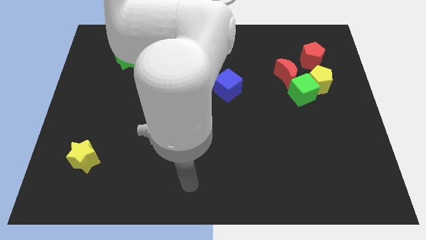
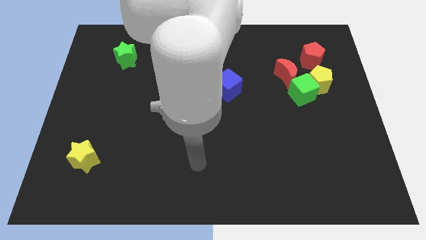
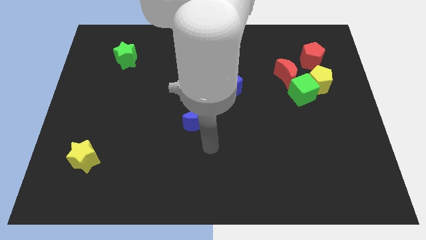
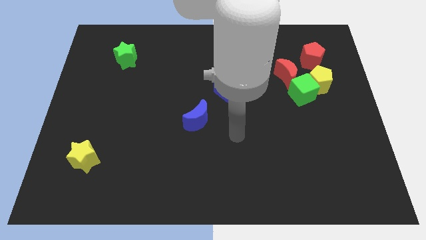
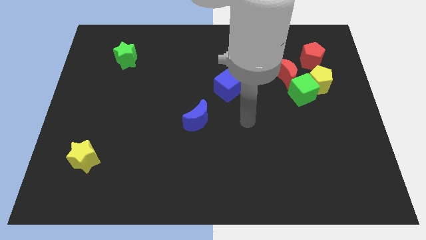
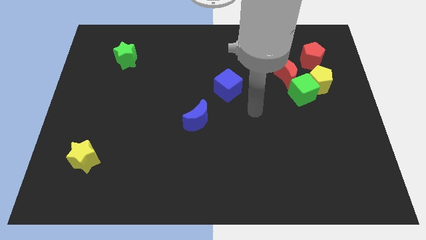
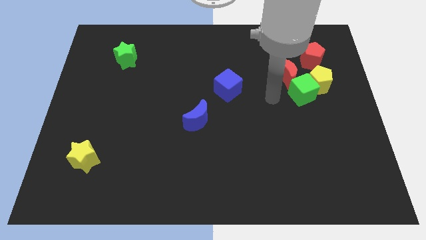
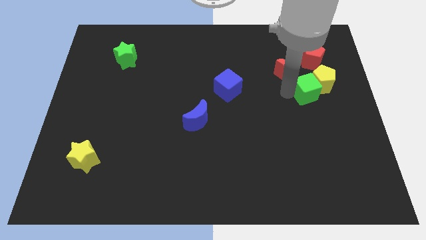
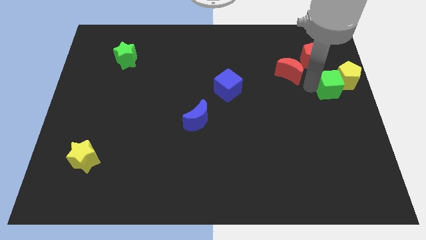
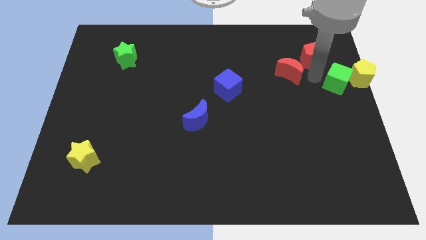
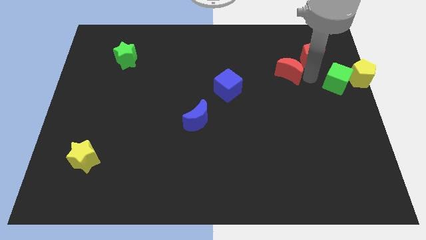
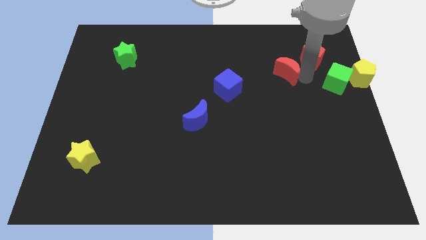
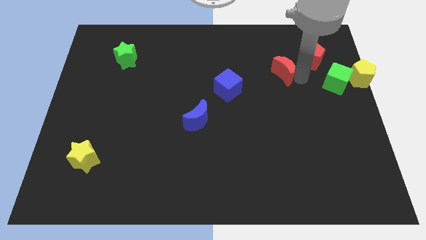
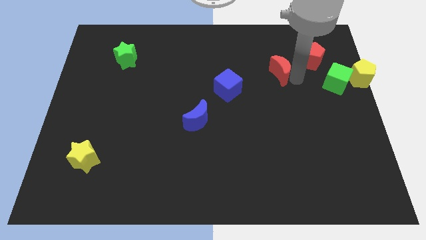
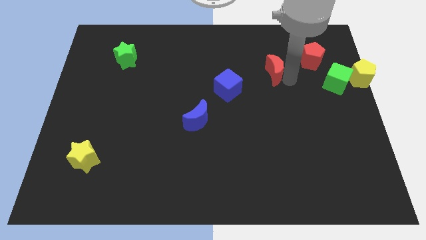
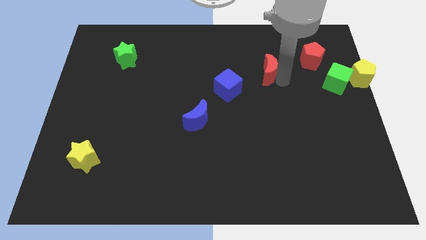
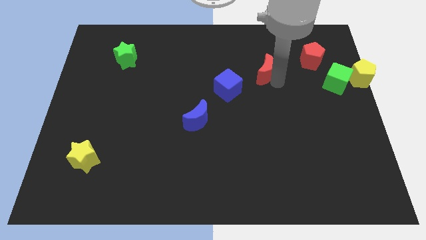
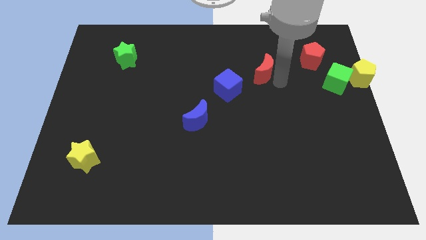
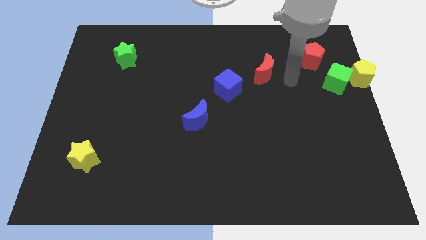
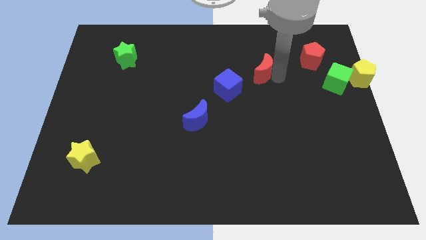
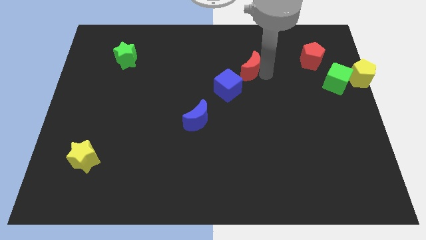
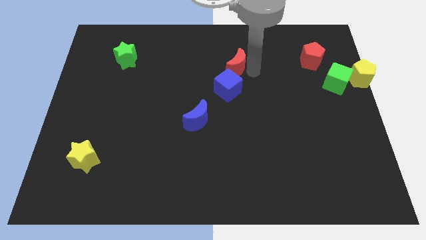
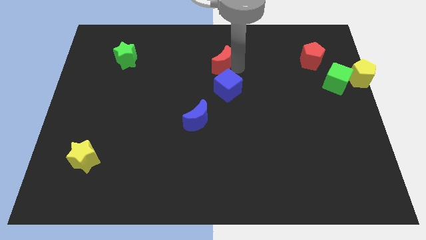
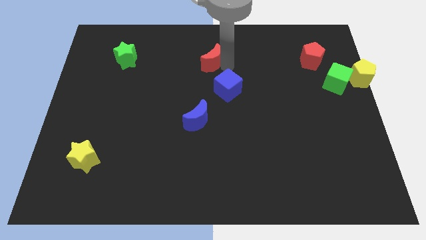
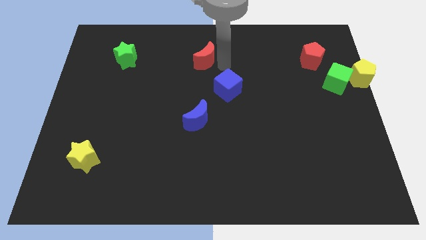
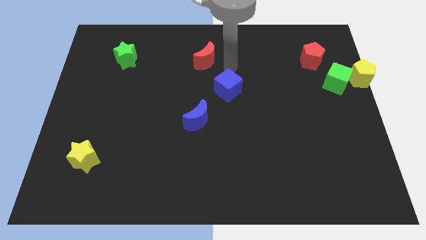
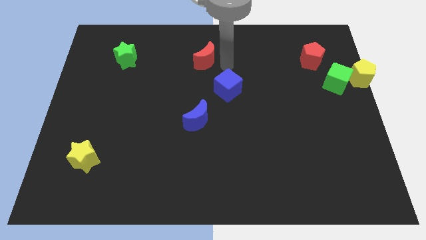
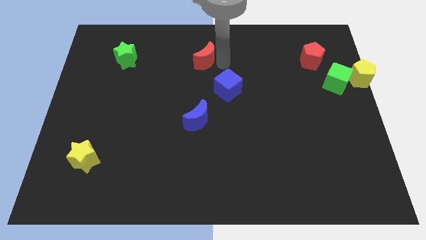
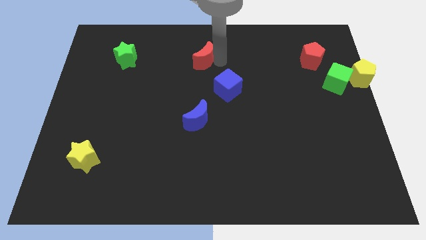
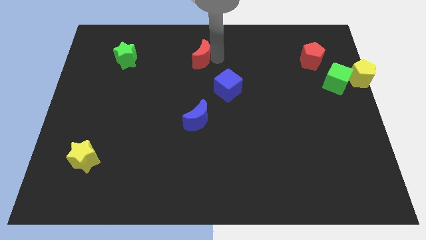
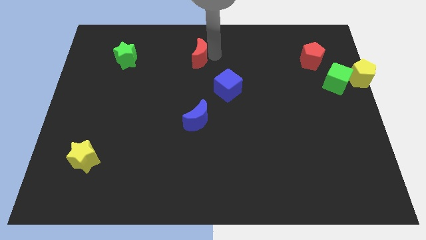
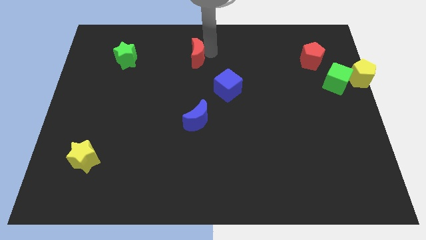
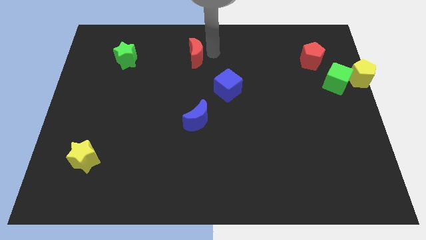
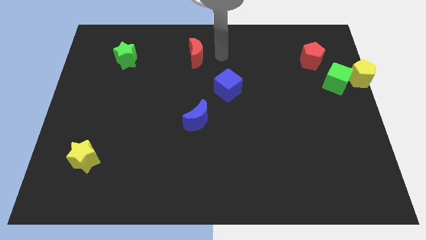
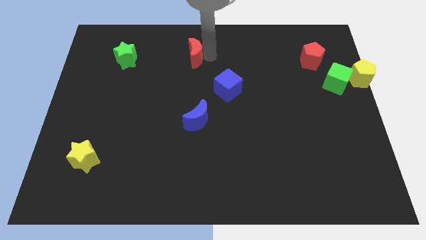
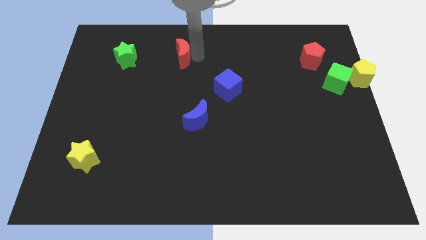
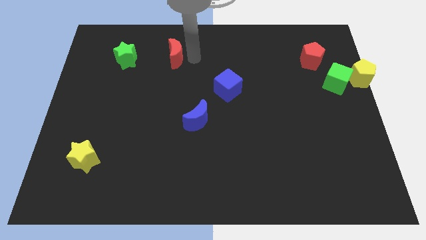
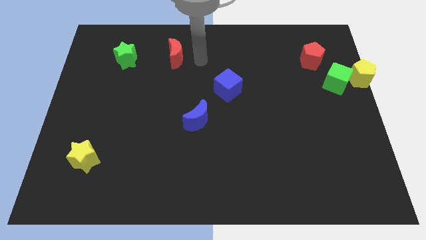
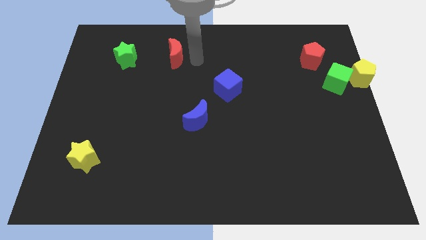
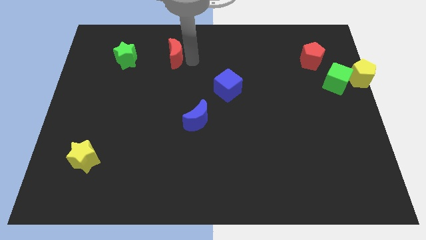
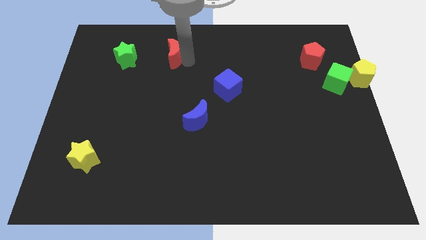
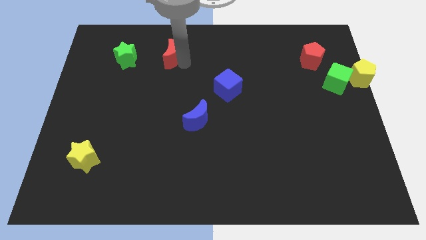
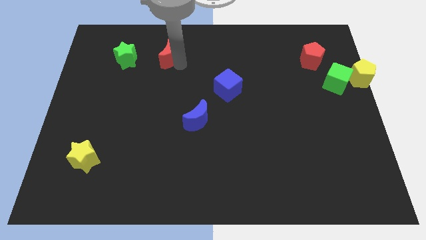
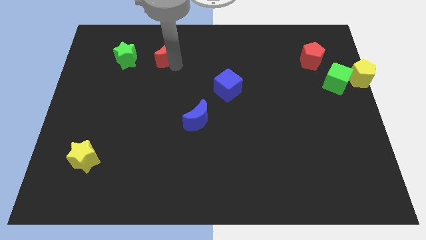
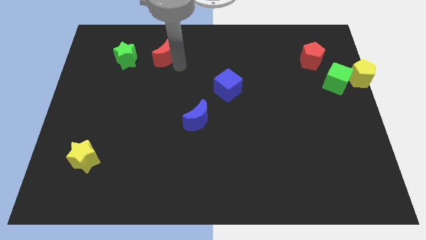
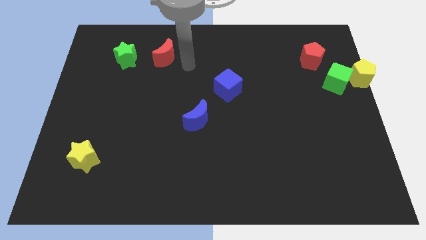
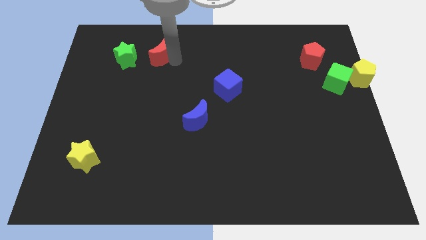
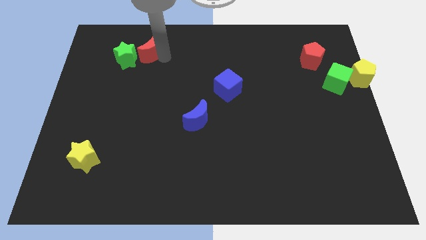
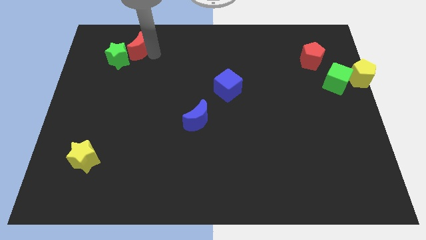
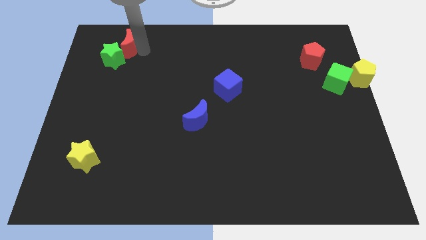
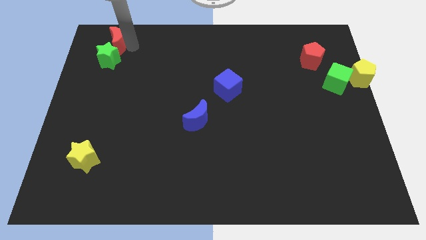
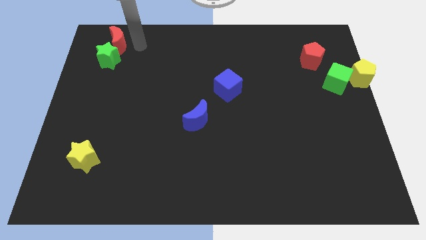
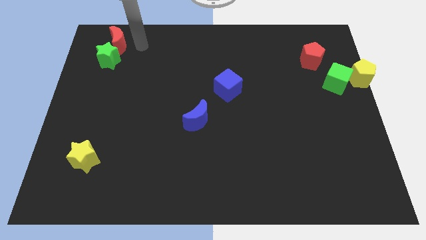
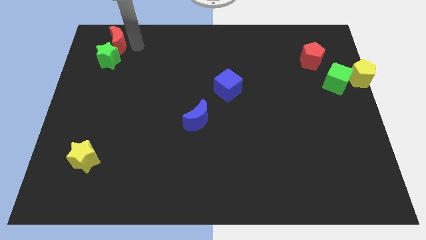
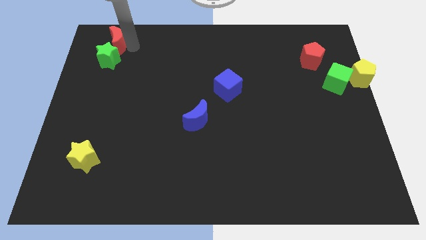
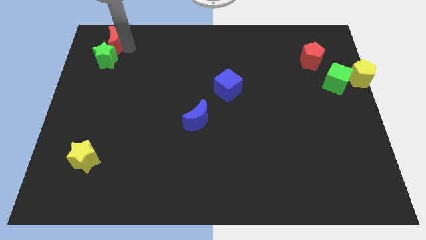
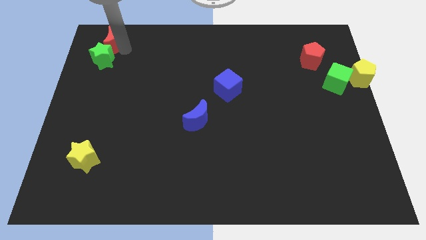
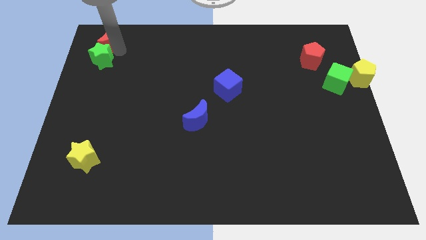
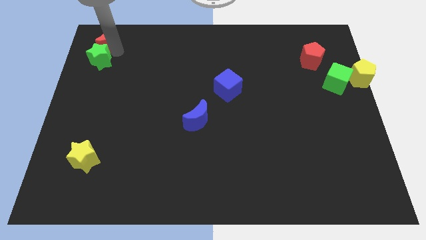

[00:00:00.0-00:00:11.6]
put the red moon to the top left of the board
